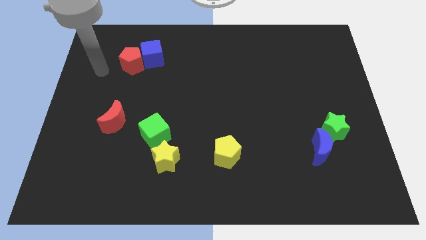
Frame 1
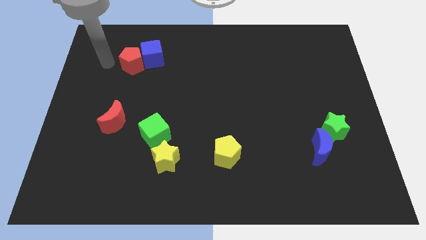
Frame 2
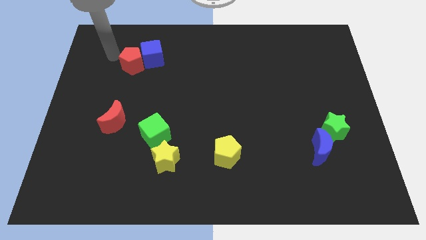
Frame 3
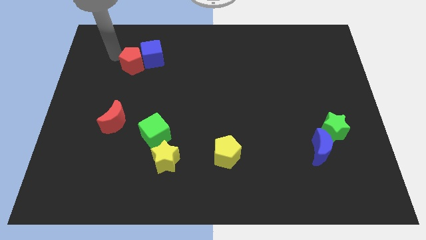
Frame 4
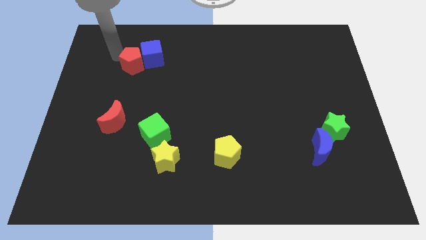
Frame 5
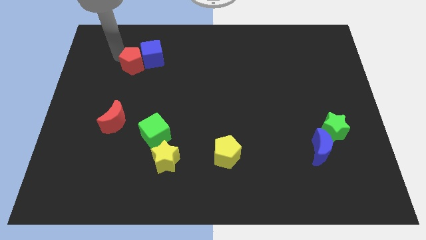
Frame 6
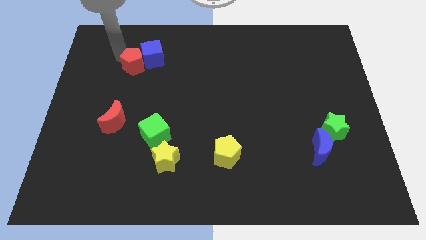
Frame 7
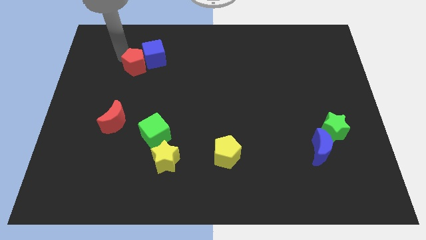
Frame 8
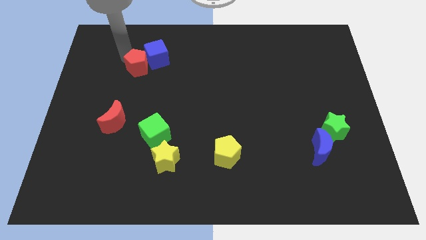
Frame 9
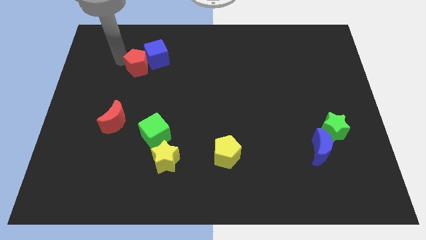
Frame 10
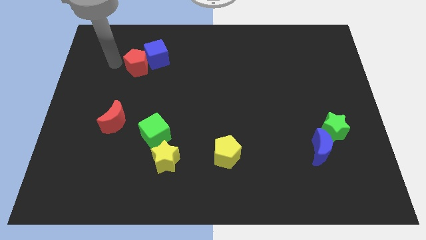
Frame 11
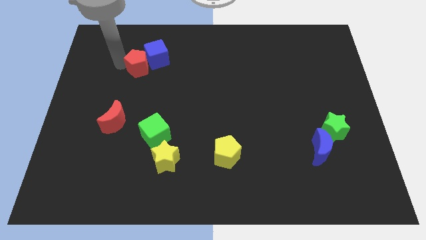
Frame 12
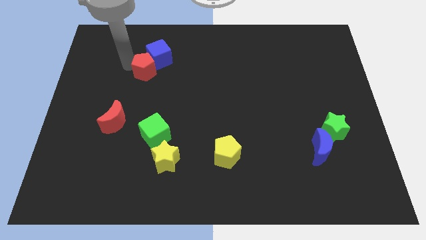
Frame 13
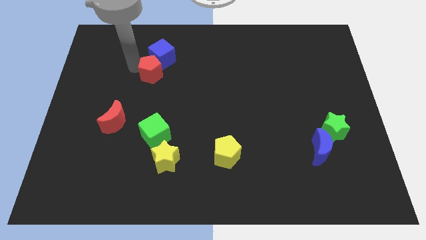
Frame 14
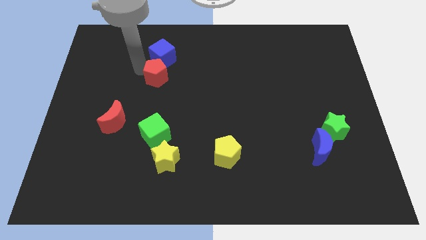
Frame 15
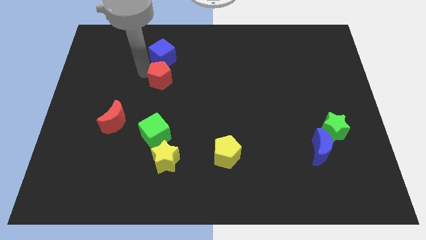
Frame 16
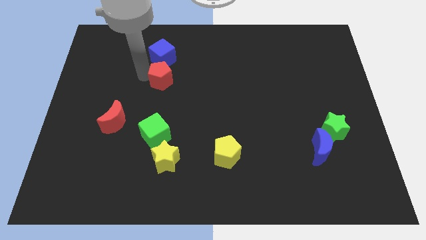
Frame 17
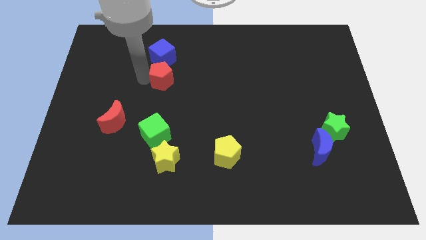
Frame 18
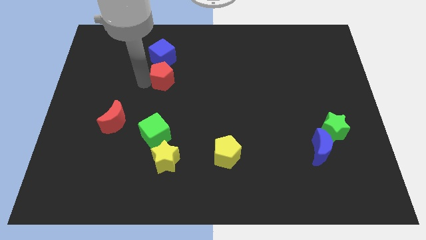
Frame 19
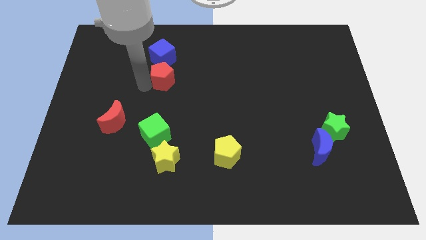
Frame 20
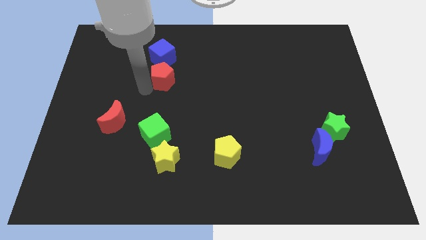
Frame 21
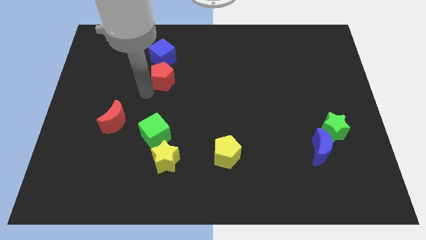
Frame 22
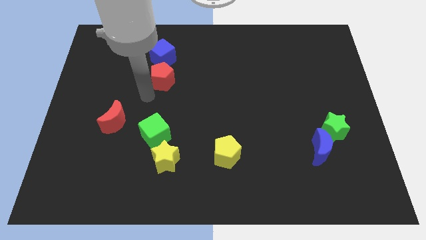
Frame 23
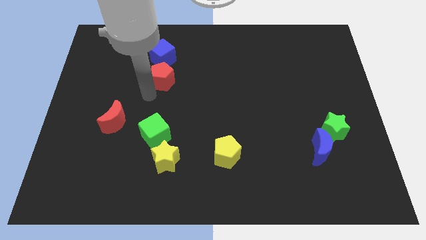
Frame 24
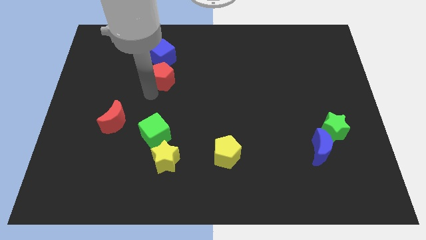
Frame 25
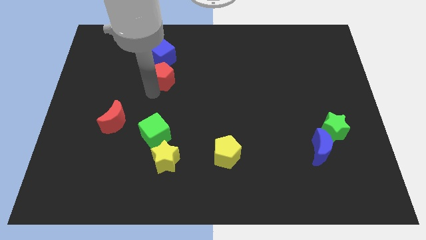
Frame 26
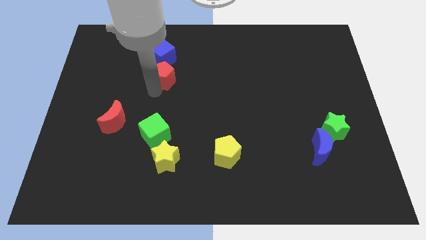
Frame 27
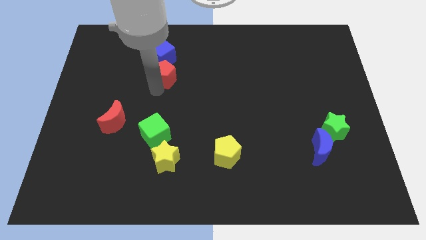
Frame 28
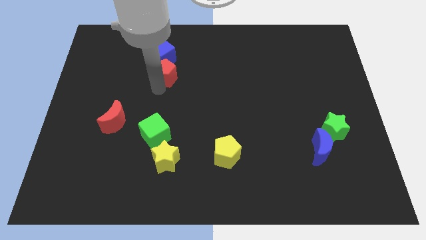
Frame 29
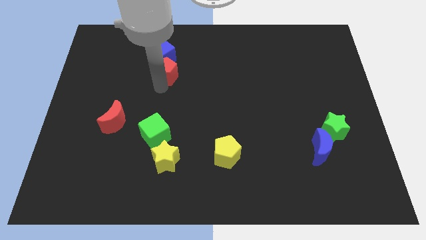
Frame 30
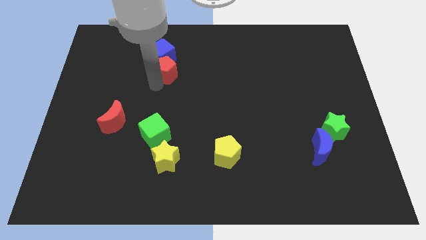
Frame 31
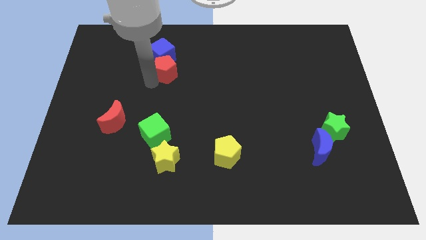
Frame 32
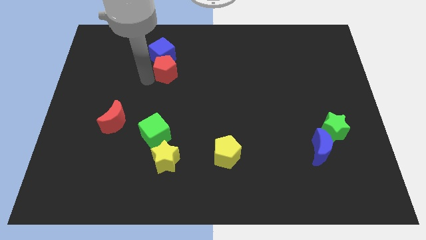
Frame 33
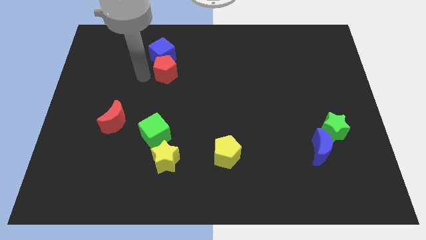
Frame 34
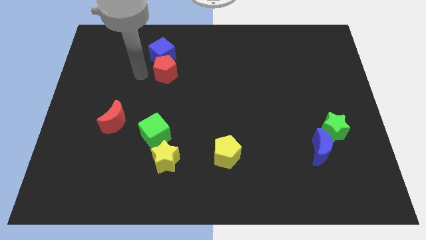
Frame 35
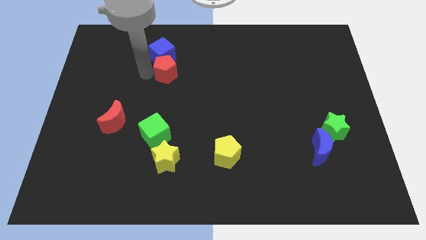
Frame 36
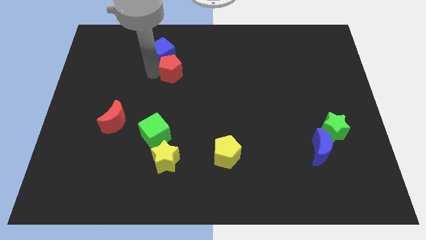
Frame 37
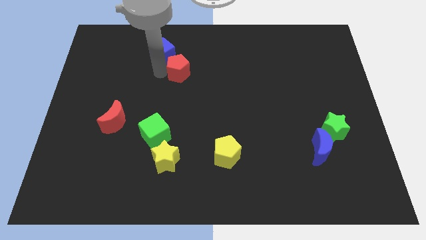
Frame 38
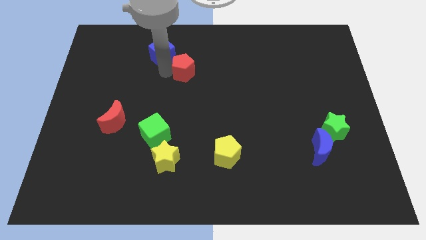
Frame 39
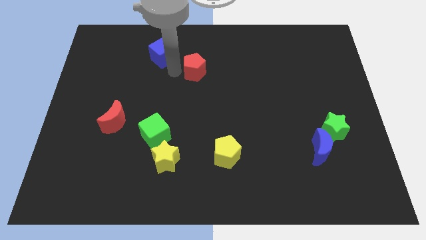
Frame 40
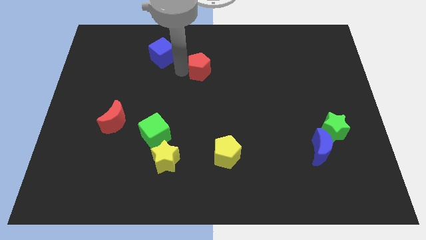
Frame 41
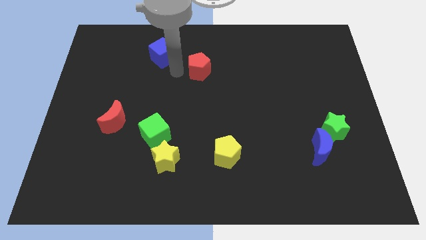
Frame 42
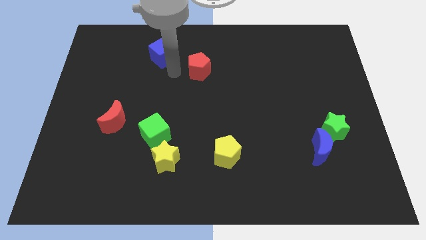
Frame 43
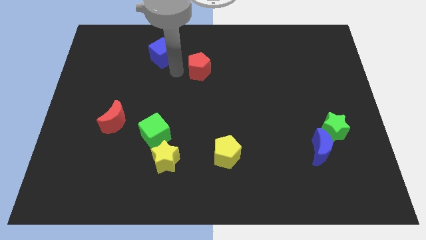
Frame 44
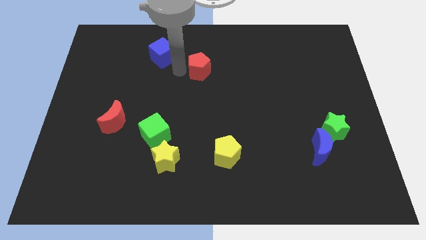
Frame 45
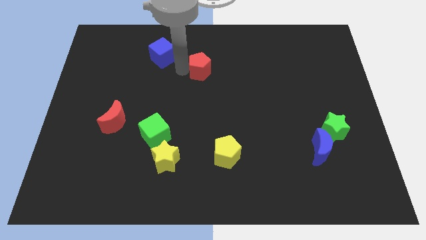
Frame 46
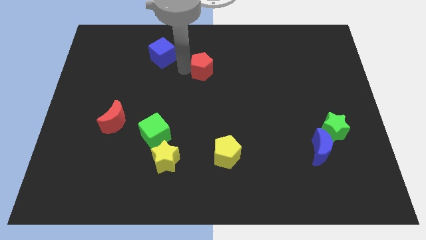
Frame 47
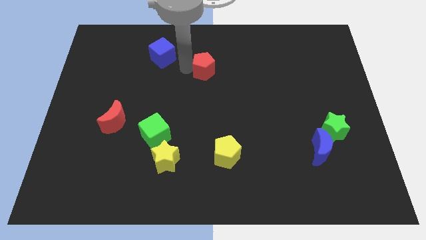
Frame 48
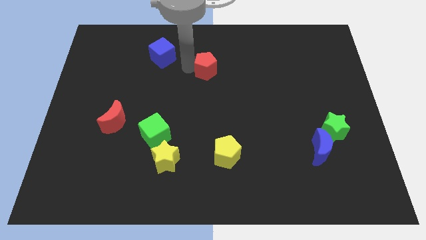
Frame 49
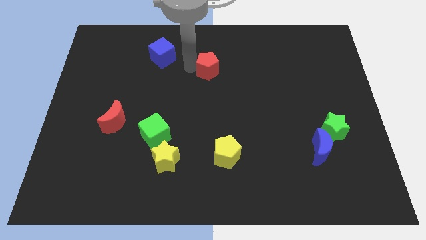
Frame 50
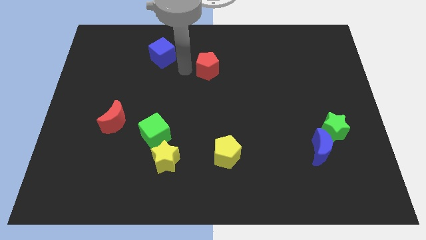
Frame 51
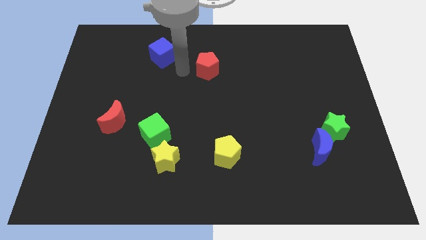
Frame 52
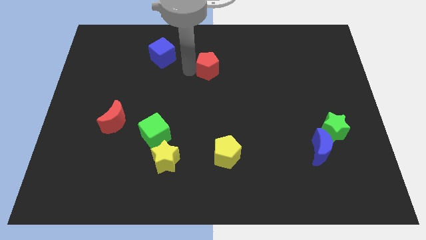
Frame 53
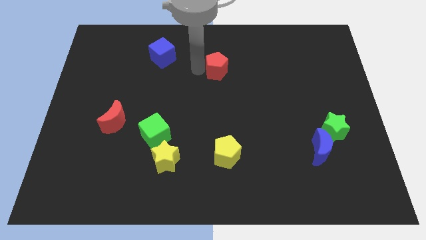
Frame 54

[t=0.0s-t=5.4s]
move the red pentagon to the right

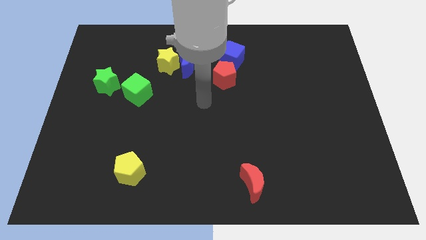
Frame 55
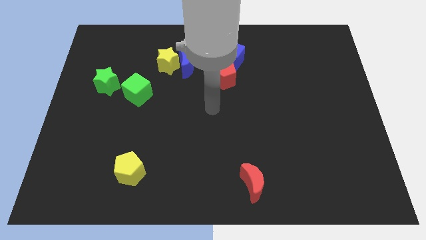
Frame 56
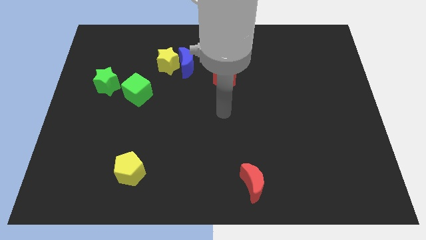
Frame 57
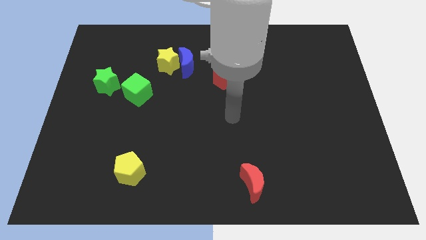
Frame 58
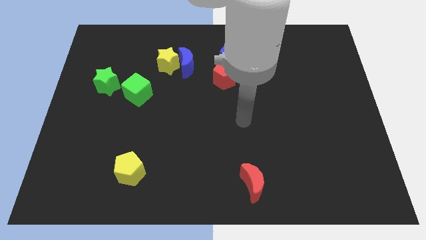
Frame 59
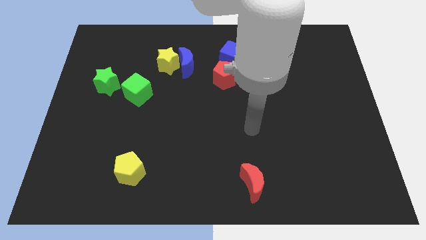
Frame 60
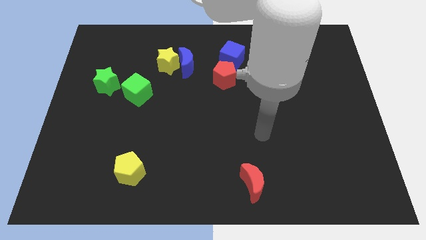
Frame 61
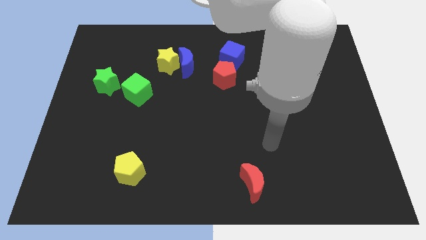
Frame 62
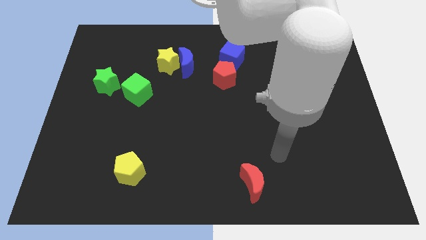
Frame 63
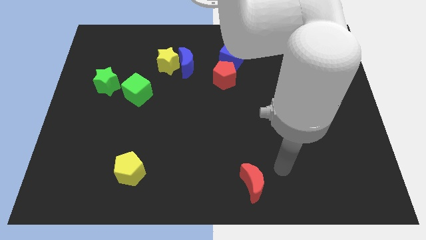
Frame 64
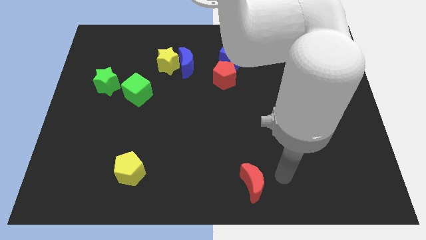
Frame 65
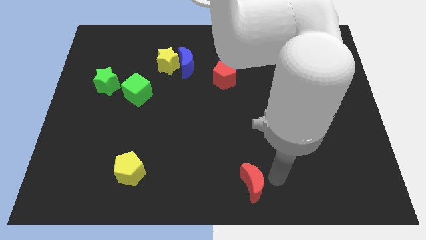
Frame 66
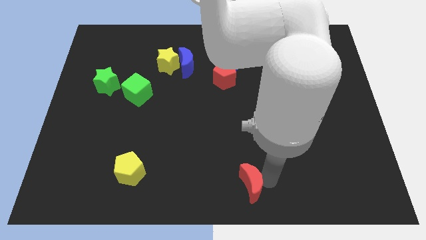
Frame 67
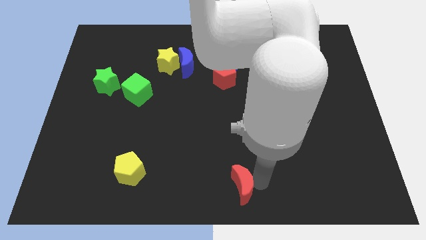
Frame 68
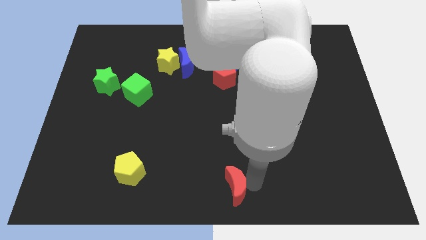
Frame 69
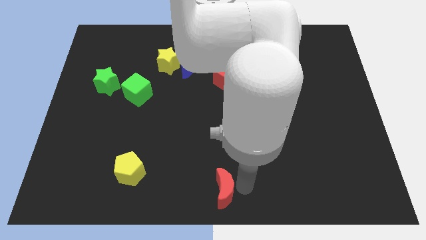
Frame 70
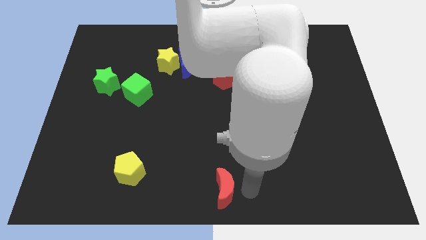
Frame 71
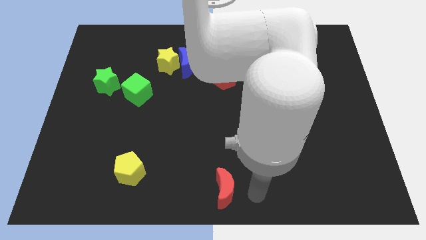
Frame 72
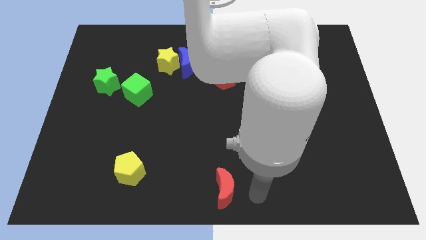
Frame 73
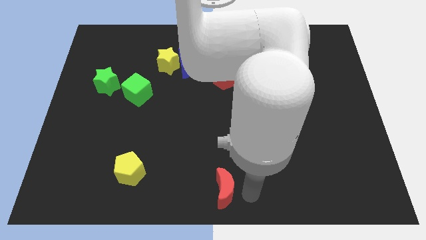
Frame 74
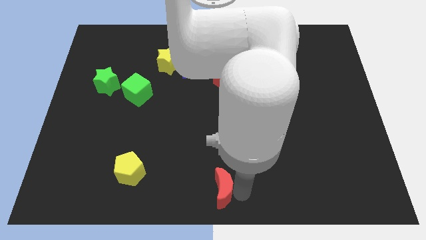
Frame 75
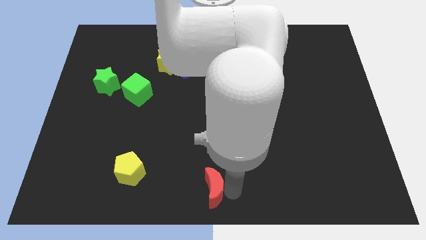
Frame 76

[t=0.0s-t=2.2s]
push the red moon left a little bit

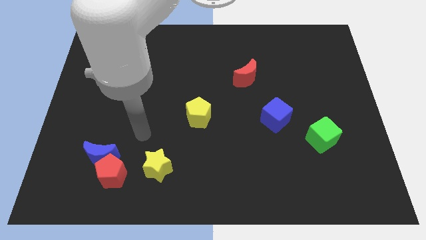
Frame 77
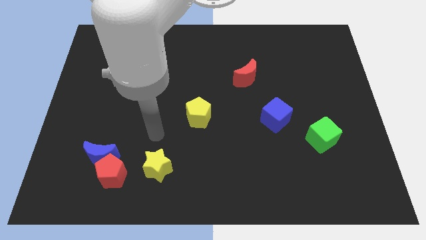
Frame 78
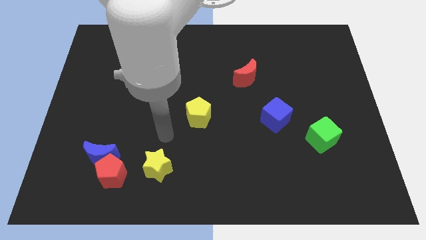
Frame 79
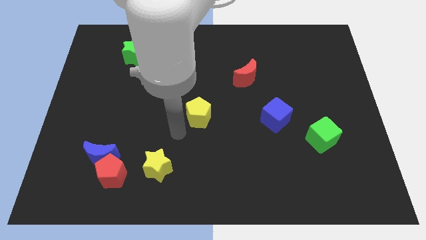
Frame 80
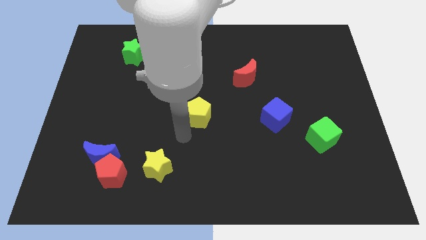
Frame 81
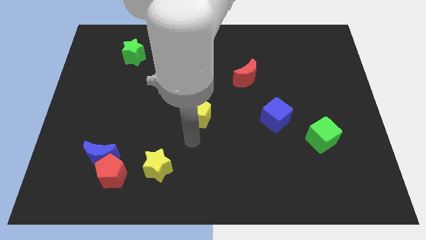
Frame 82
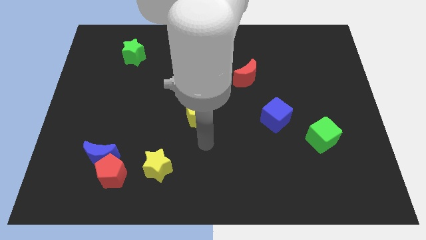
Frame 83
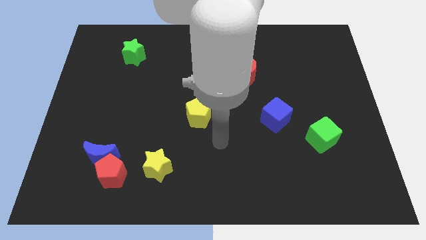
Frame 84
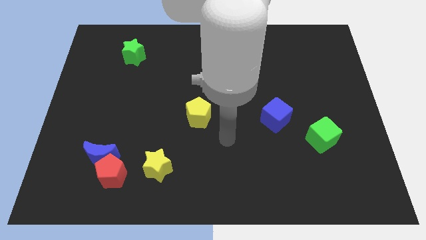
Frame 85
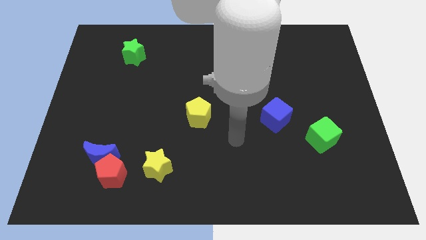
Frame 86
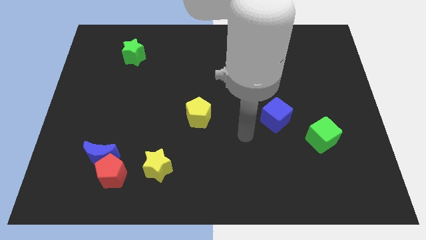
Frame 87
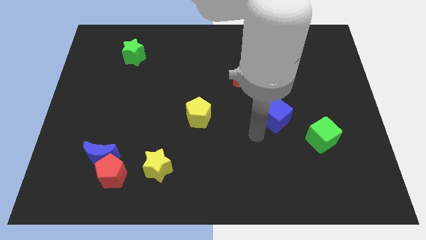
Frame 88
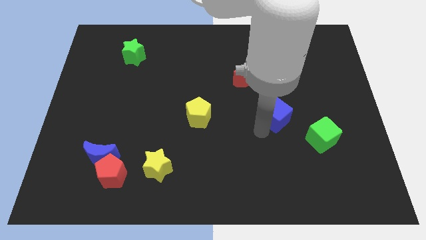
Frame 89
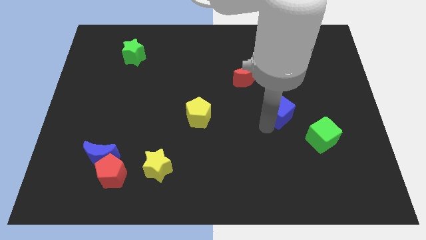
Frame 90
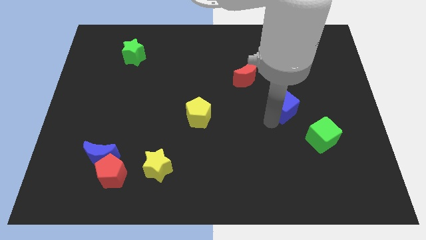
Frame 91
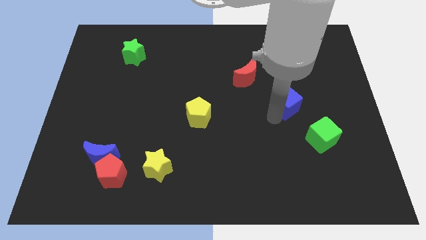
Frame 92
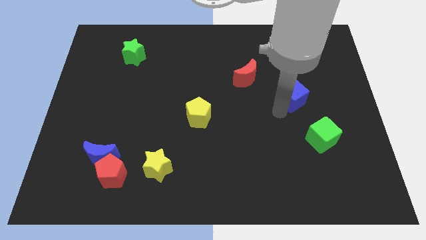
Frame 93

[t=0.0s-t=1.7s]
slightly slide the blue cube upwards and to the right diagonally
